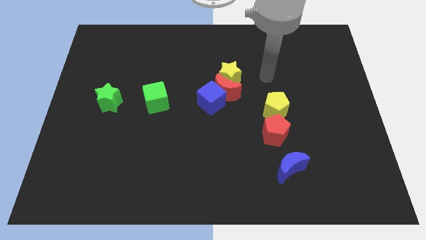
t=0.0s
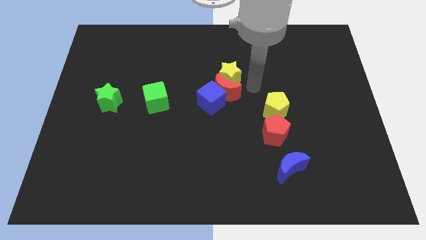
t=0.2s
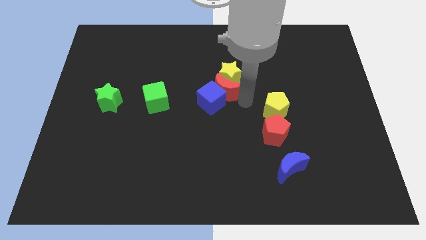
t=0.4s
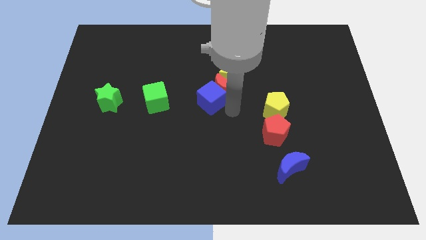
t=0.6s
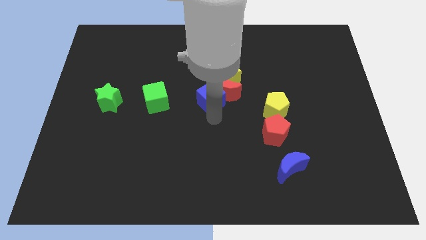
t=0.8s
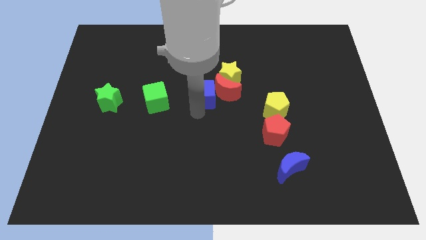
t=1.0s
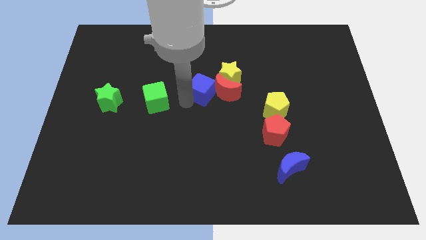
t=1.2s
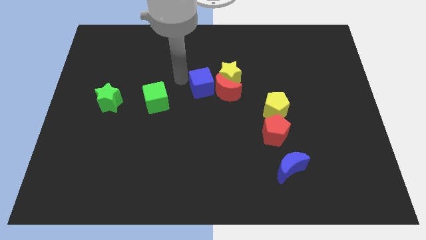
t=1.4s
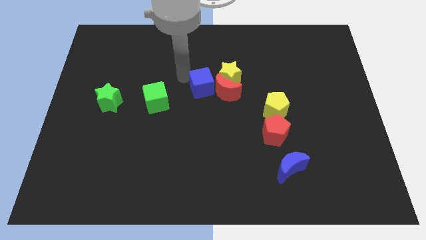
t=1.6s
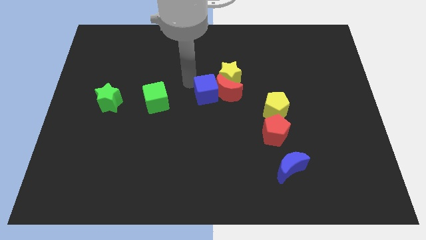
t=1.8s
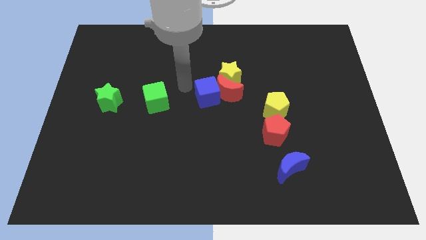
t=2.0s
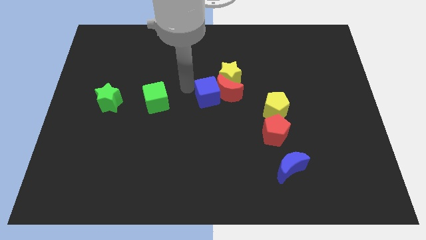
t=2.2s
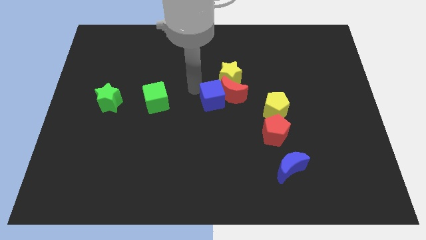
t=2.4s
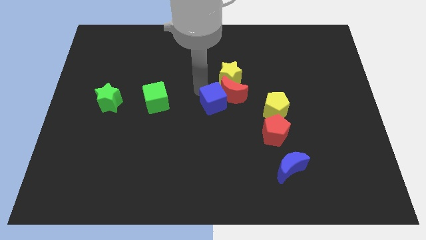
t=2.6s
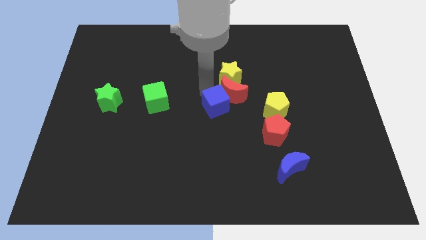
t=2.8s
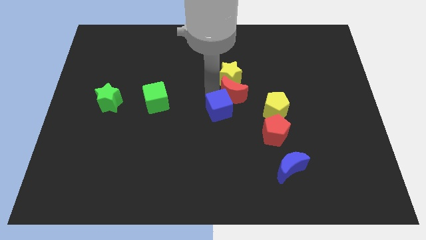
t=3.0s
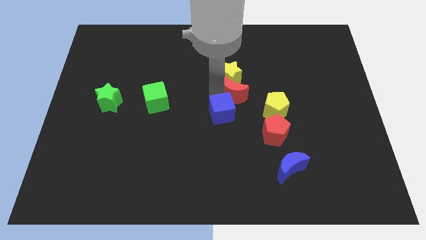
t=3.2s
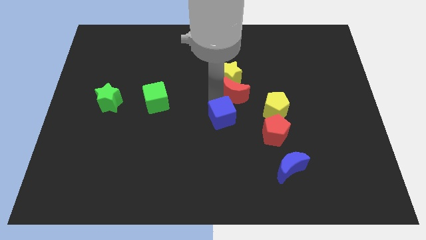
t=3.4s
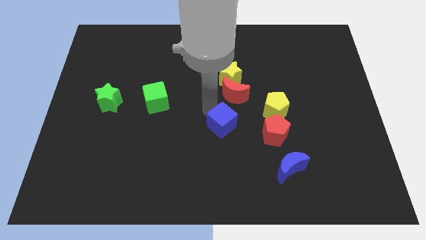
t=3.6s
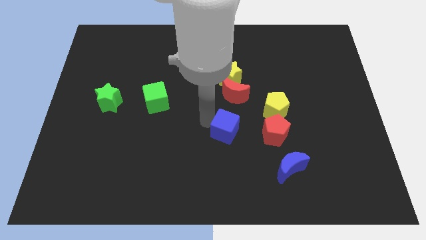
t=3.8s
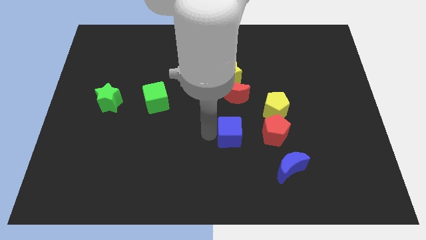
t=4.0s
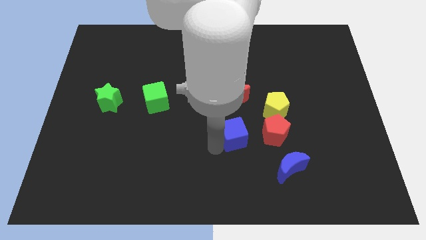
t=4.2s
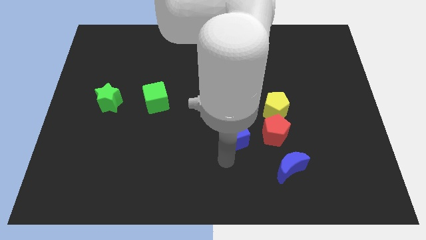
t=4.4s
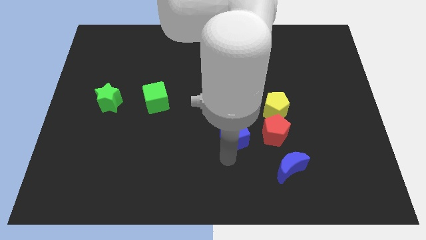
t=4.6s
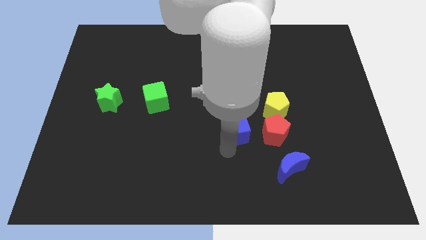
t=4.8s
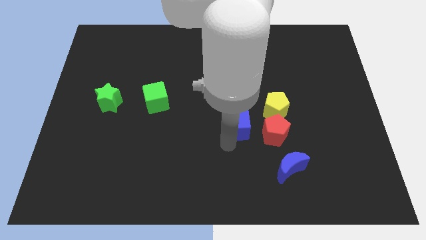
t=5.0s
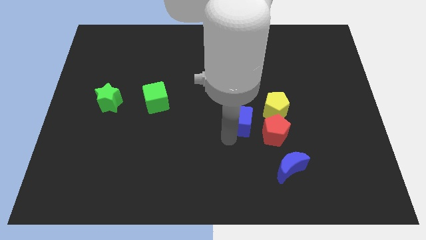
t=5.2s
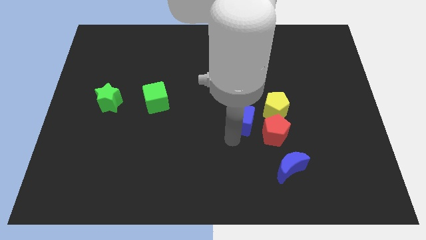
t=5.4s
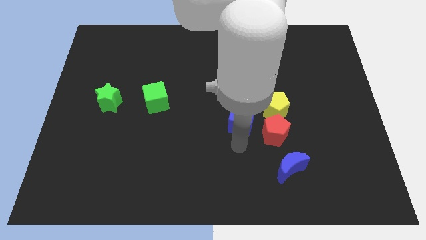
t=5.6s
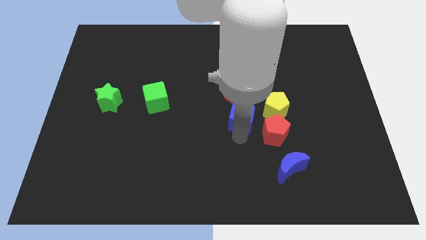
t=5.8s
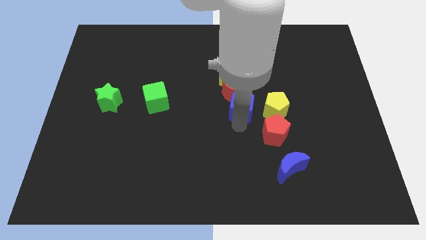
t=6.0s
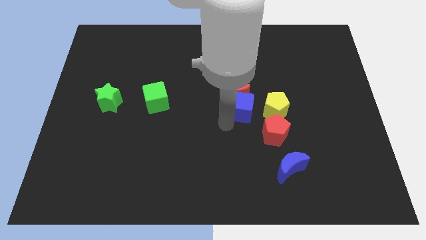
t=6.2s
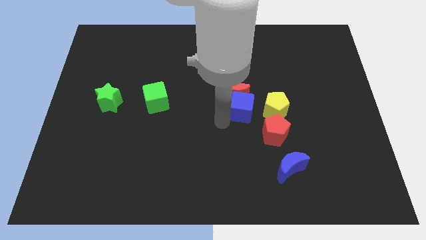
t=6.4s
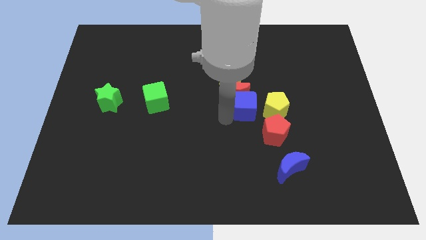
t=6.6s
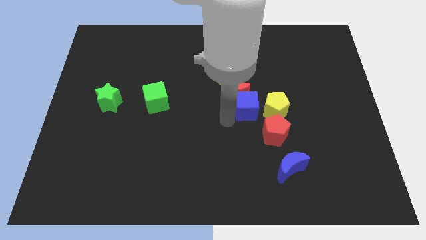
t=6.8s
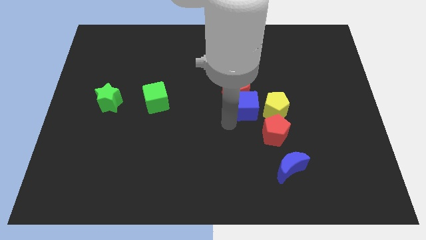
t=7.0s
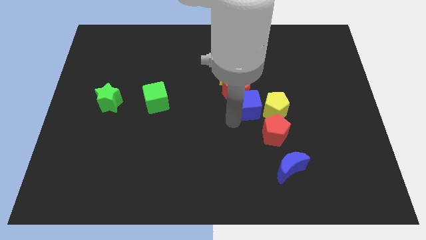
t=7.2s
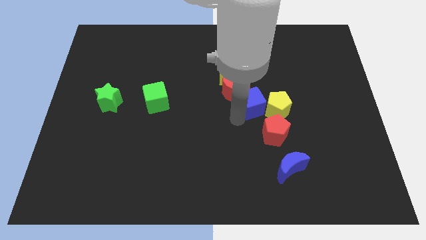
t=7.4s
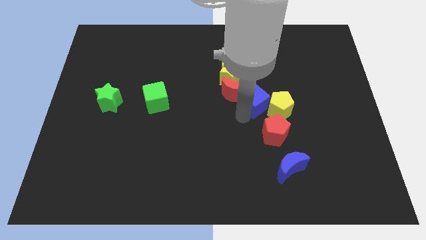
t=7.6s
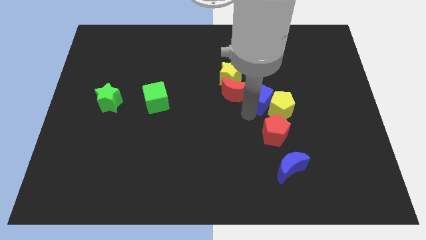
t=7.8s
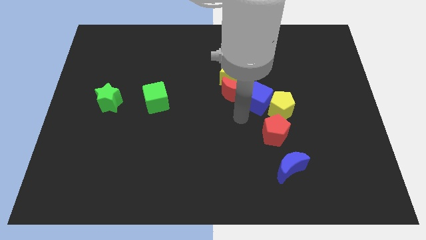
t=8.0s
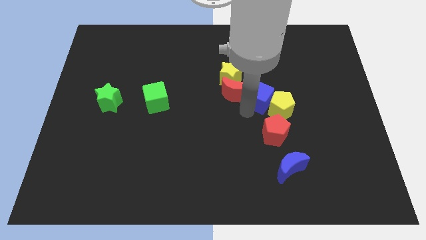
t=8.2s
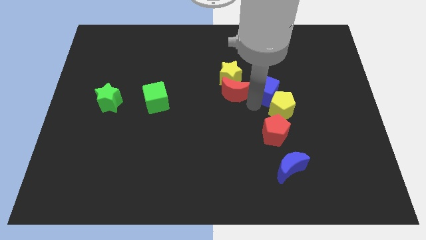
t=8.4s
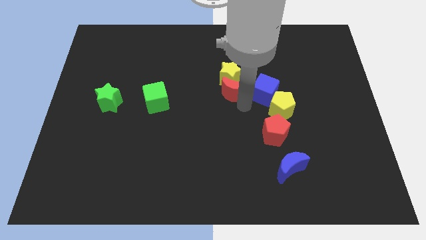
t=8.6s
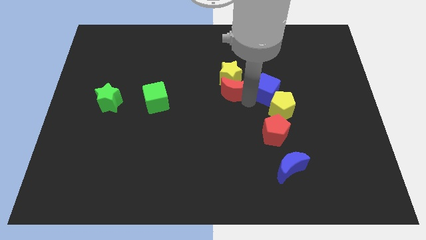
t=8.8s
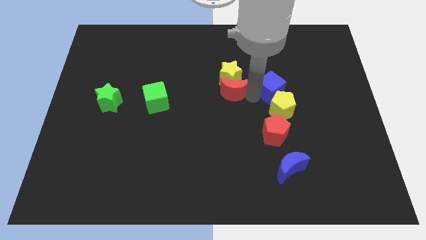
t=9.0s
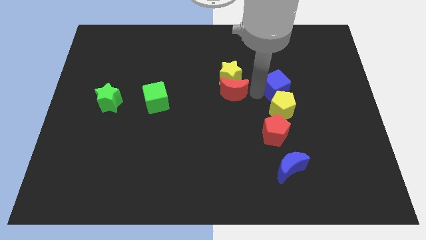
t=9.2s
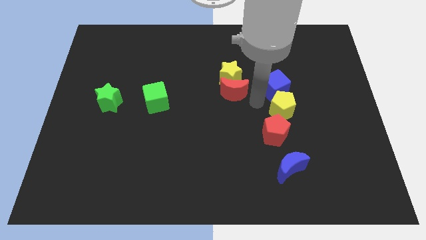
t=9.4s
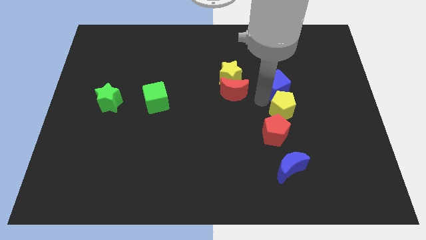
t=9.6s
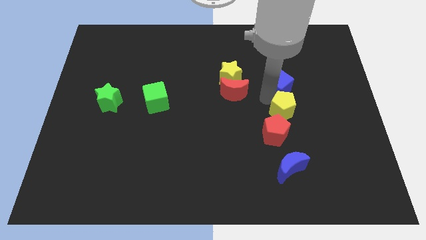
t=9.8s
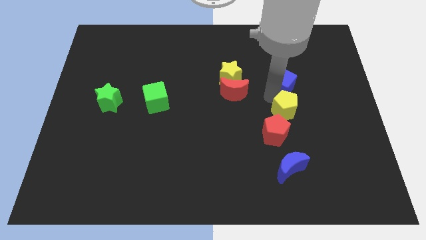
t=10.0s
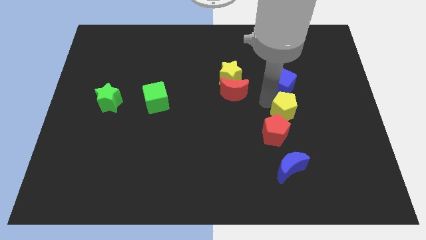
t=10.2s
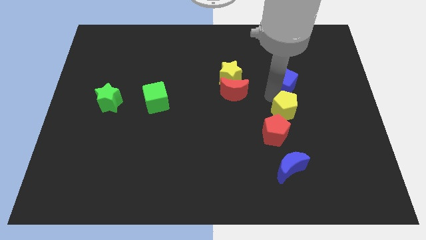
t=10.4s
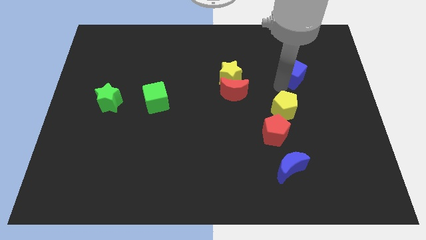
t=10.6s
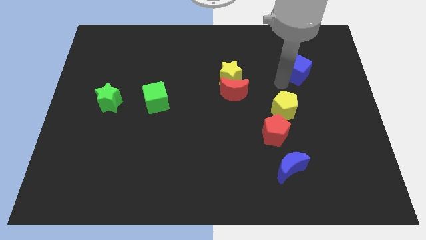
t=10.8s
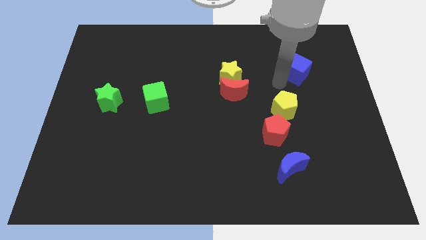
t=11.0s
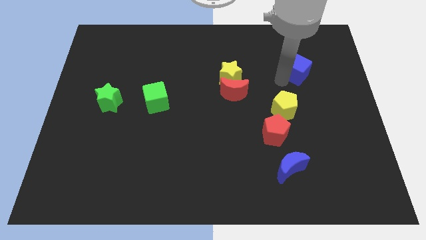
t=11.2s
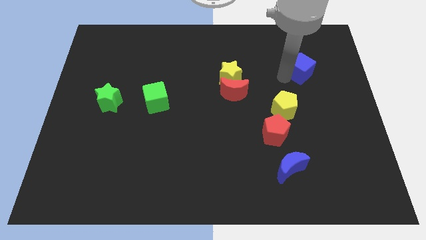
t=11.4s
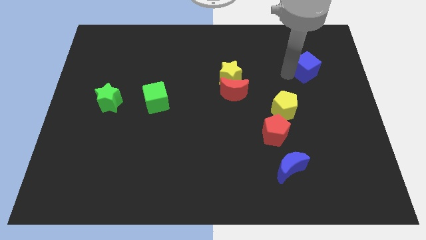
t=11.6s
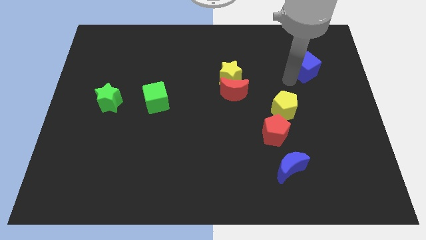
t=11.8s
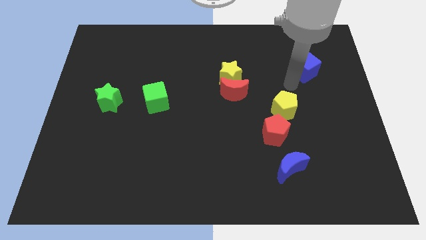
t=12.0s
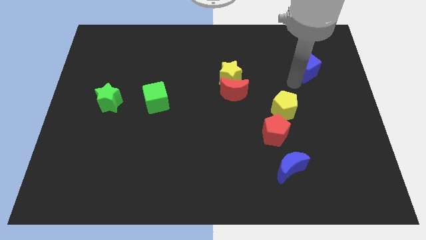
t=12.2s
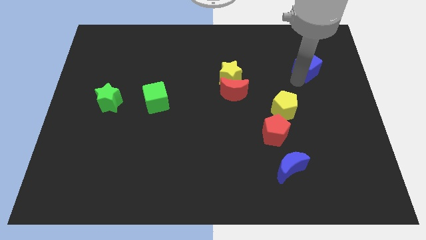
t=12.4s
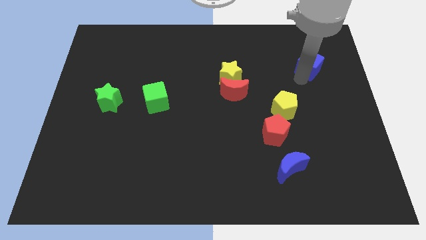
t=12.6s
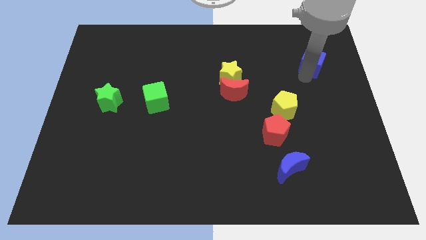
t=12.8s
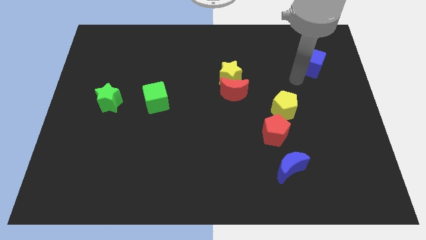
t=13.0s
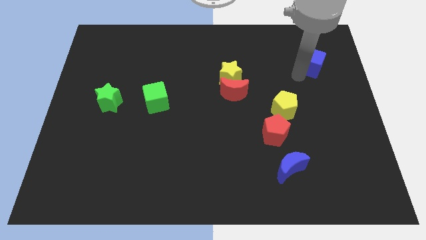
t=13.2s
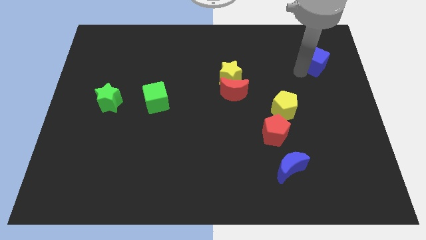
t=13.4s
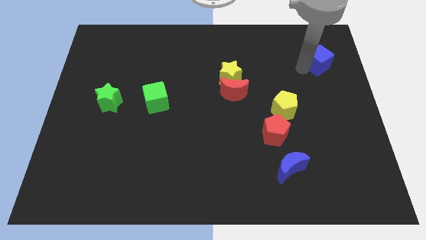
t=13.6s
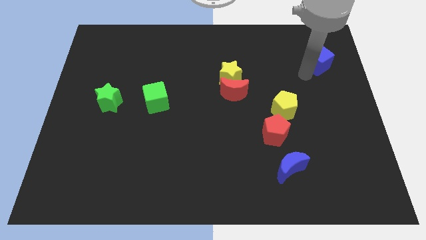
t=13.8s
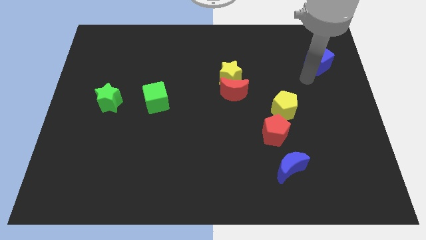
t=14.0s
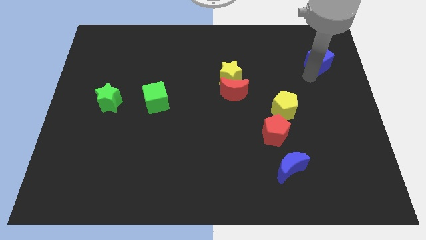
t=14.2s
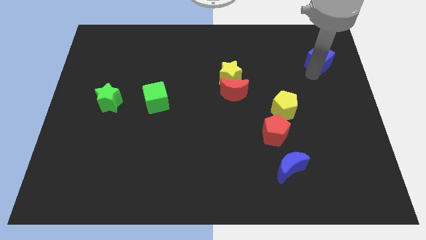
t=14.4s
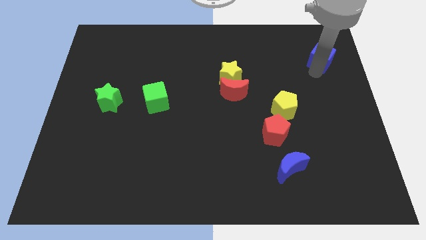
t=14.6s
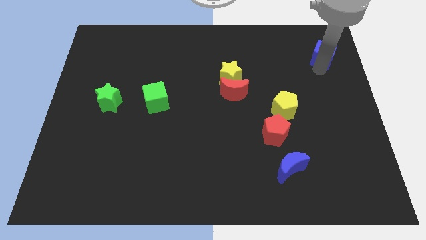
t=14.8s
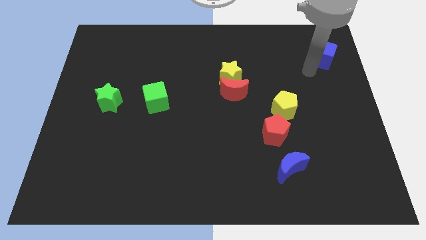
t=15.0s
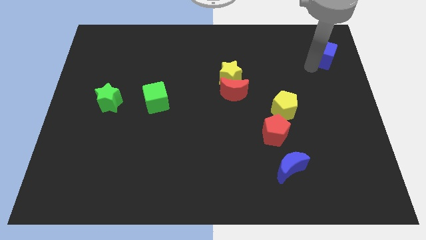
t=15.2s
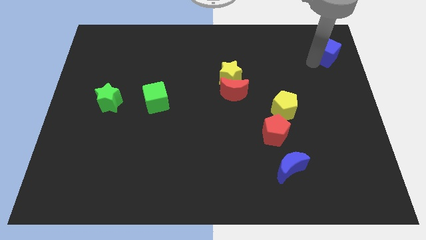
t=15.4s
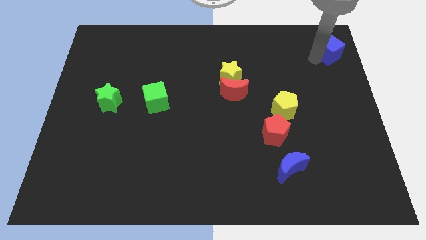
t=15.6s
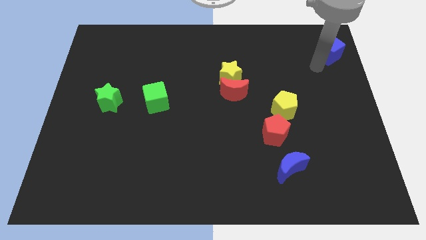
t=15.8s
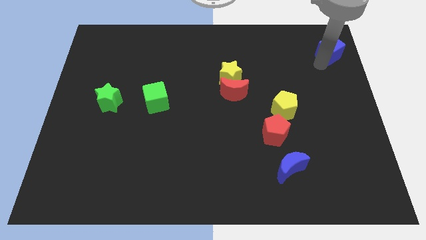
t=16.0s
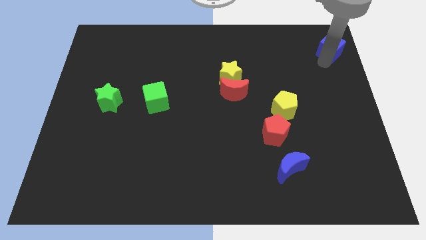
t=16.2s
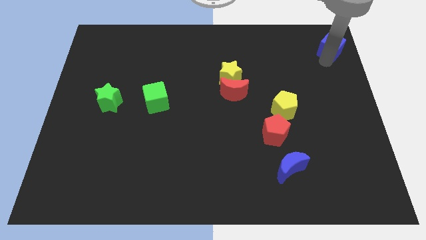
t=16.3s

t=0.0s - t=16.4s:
move the blue cube to the top right corner
